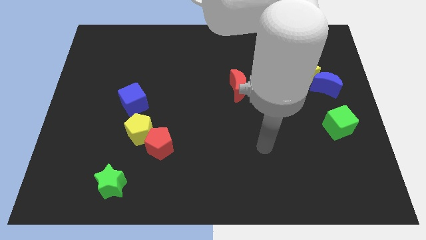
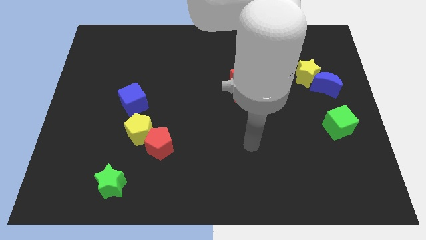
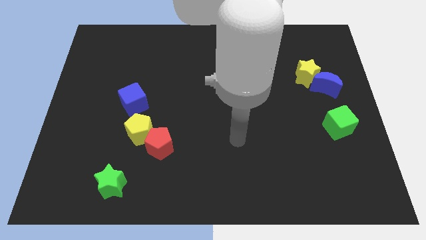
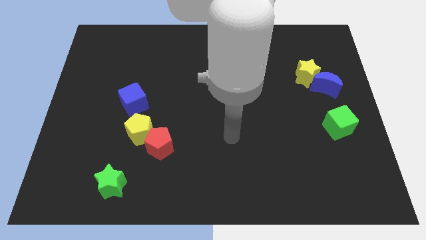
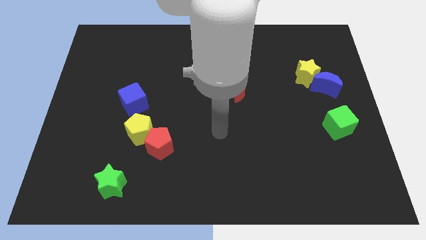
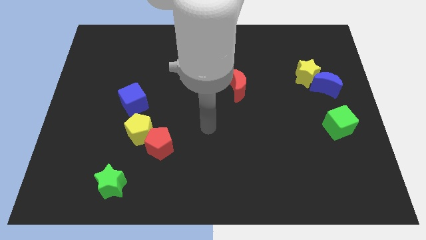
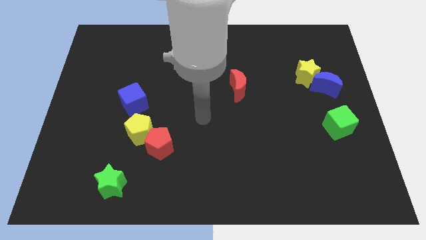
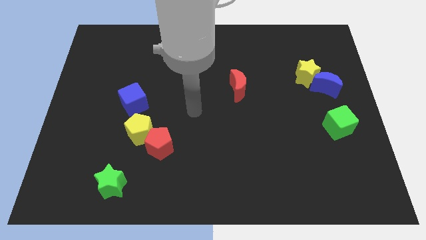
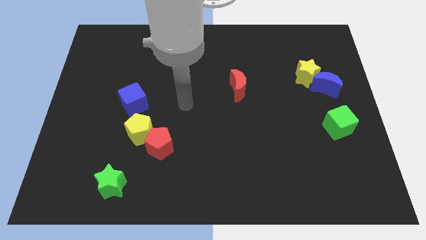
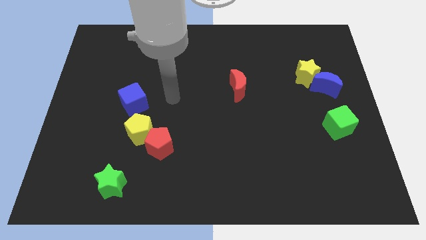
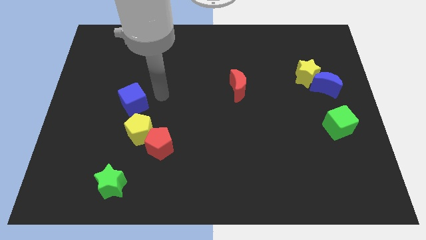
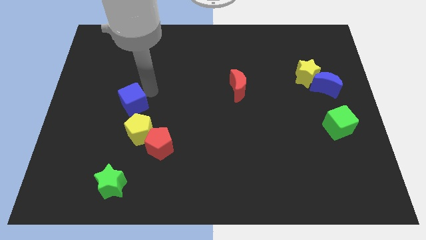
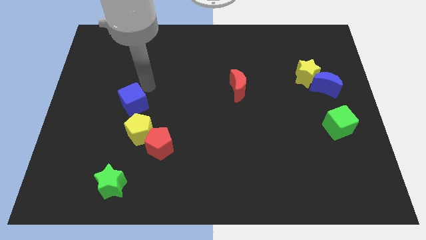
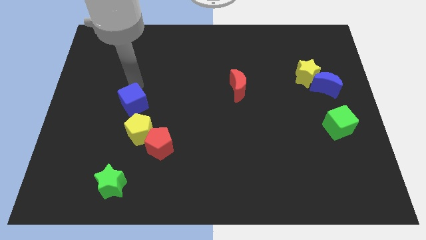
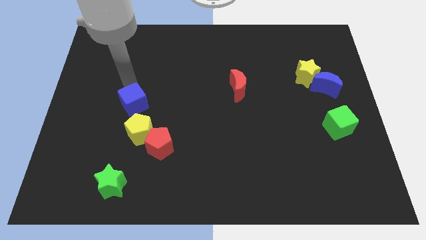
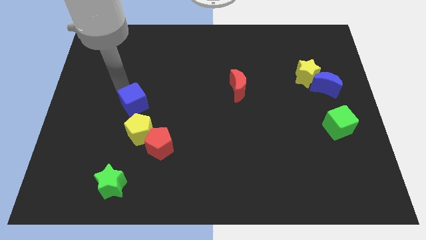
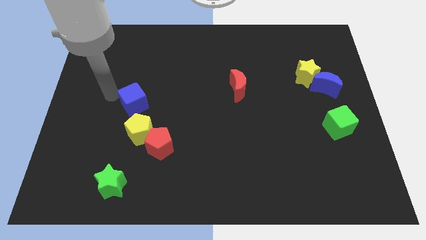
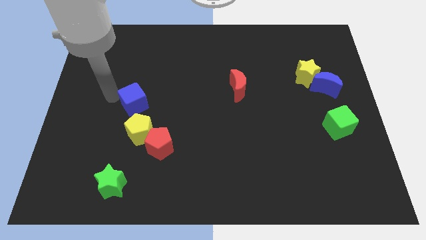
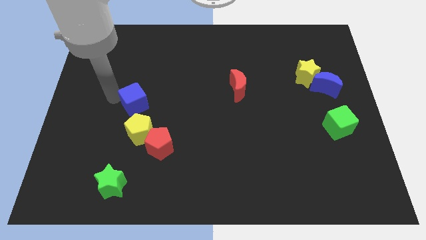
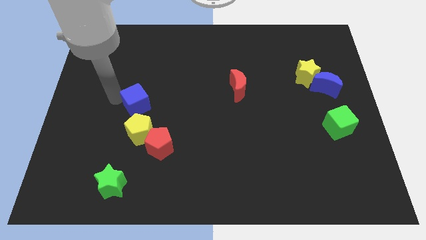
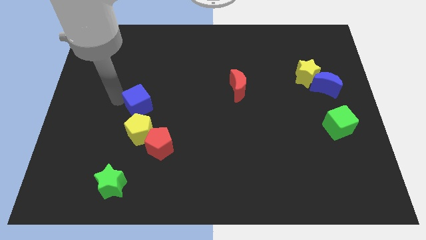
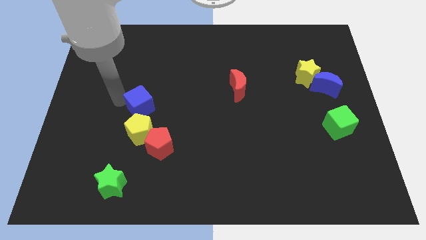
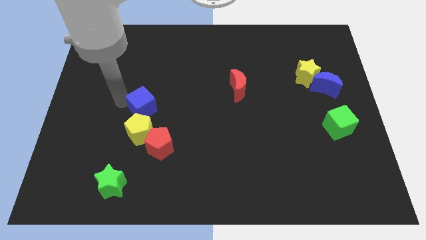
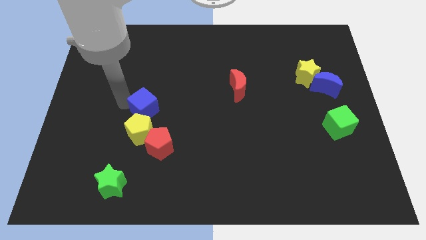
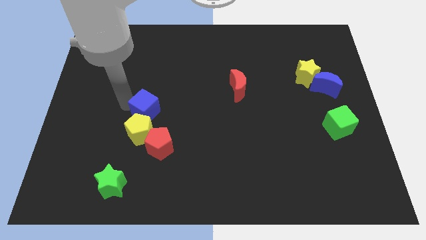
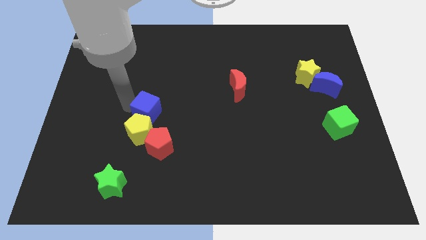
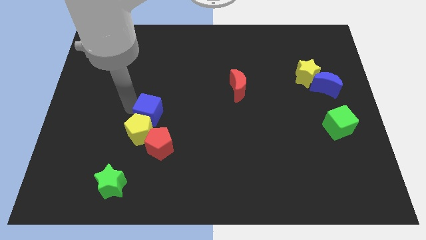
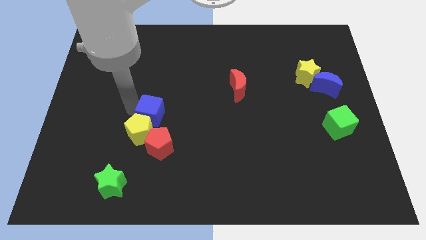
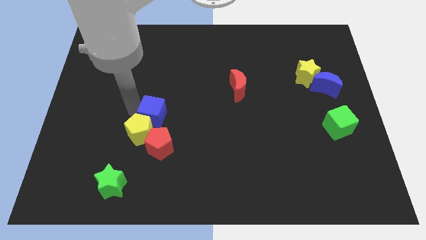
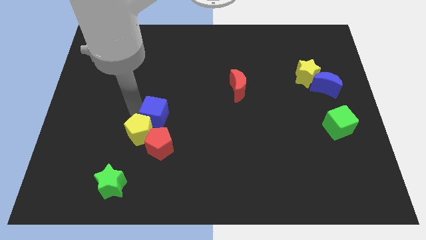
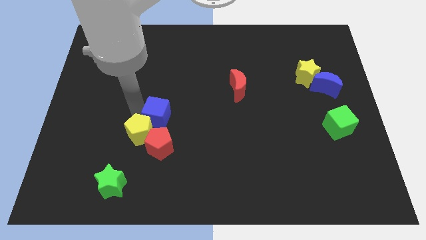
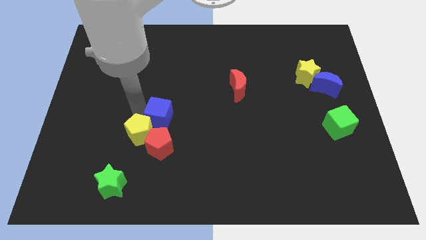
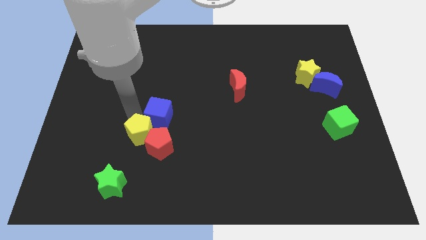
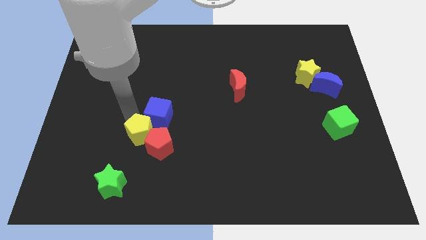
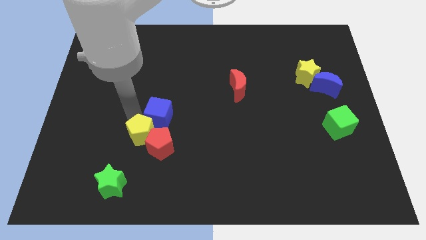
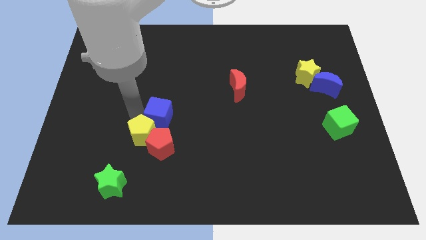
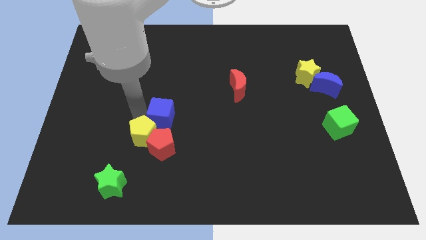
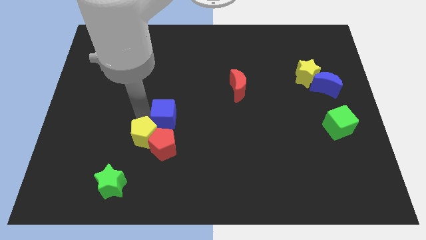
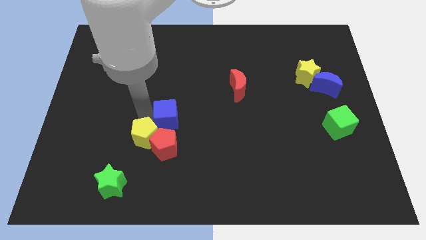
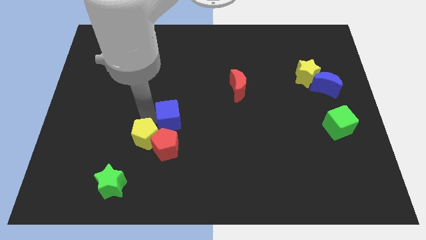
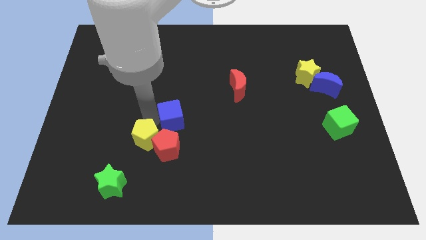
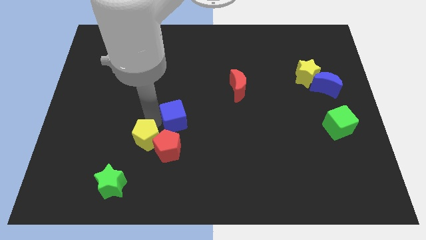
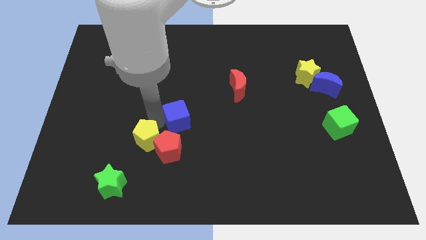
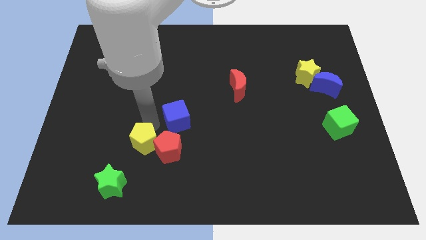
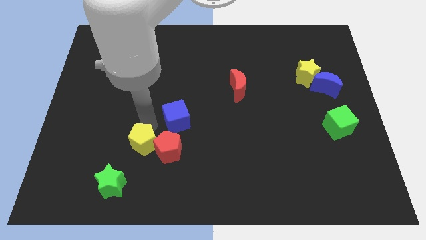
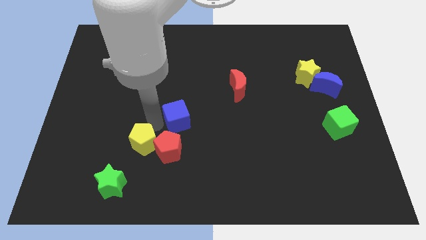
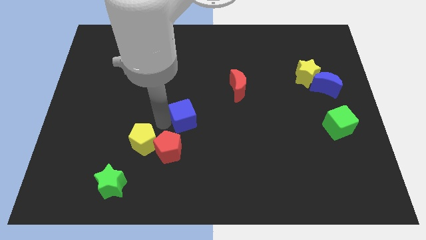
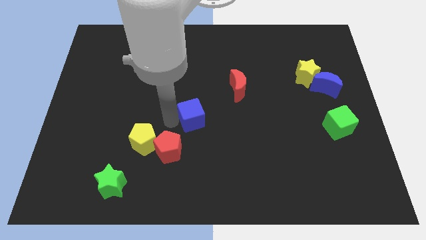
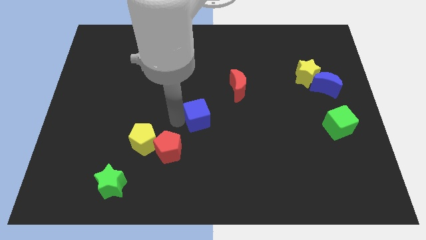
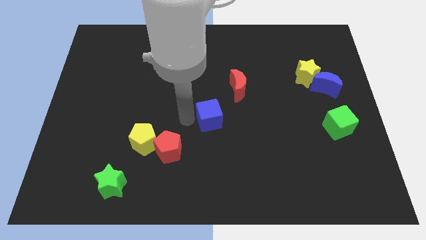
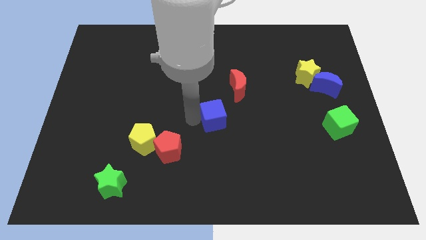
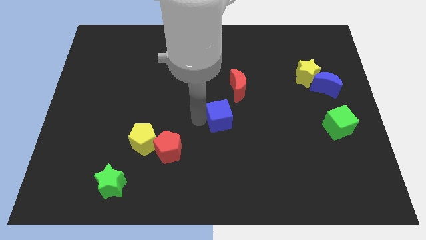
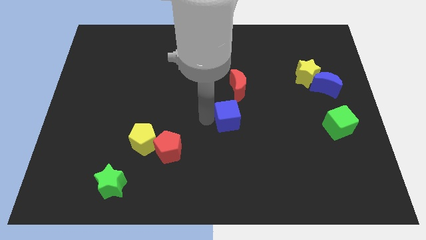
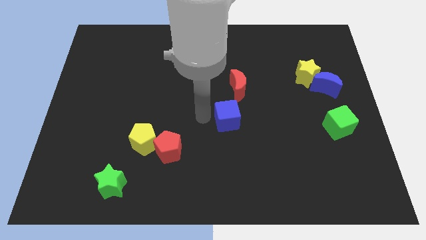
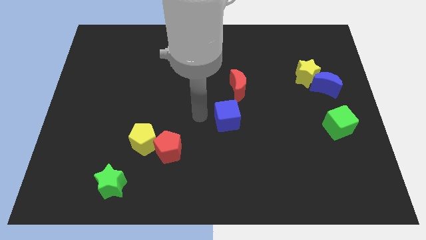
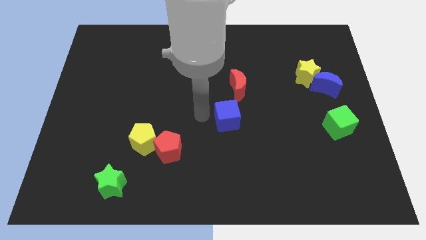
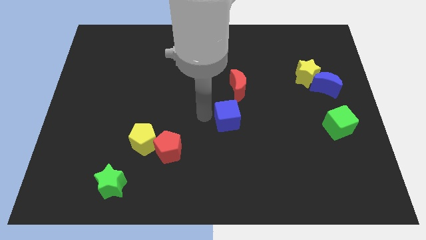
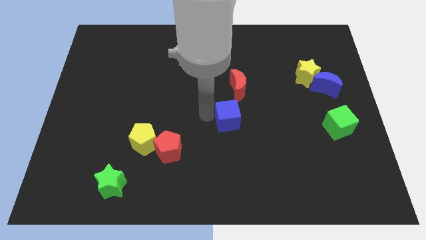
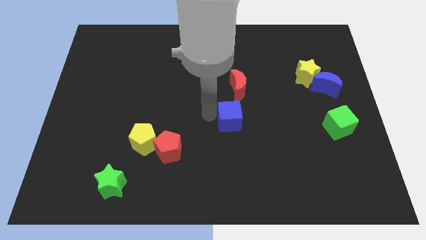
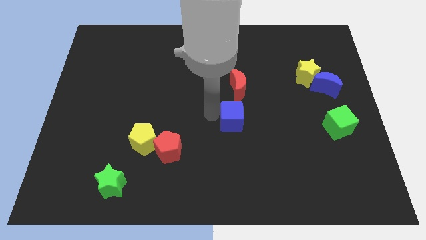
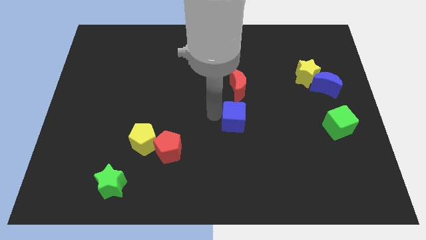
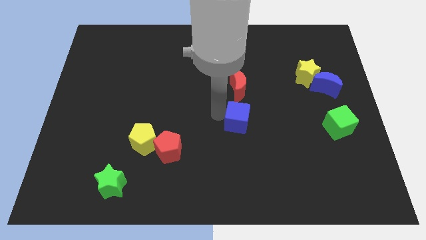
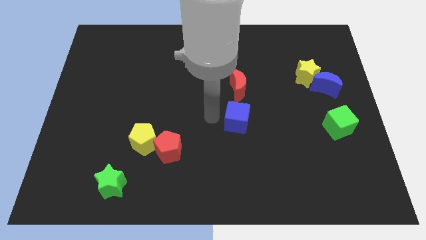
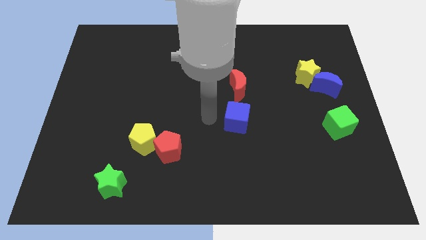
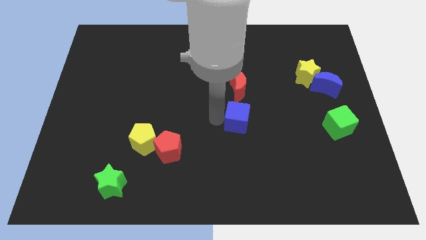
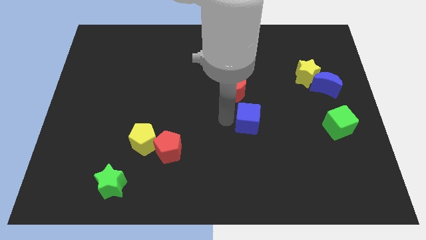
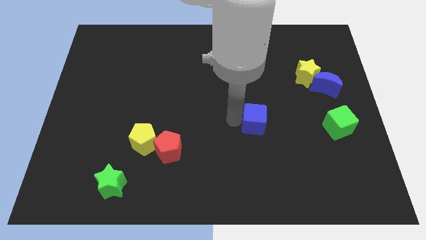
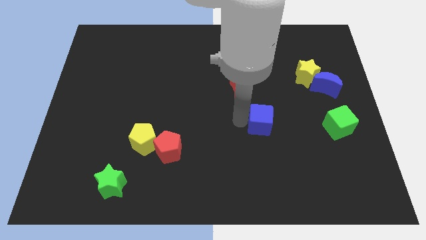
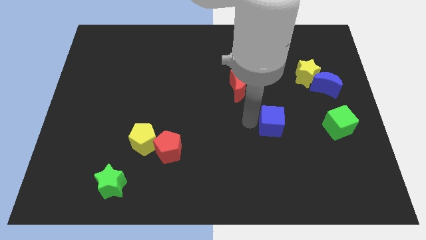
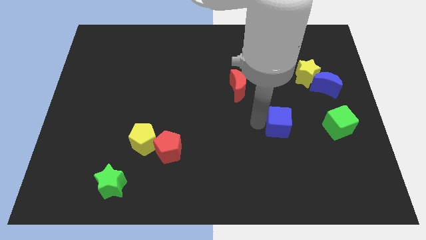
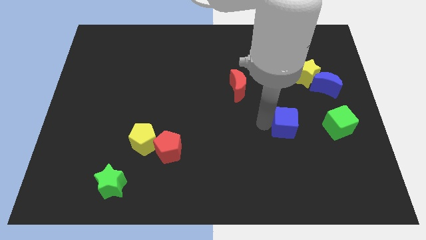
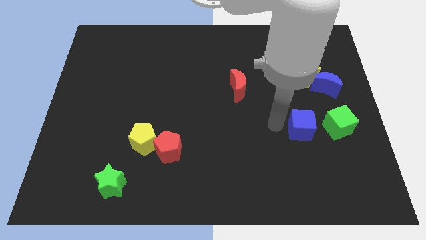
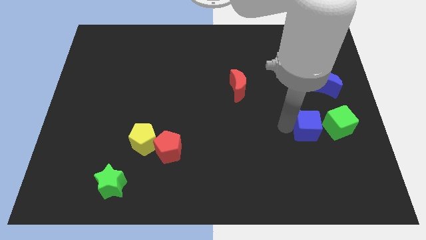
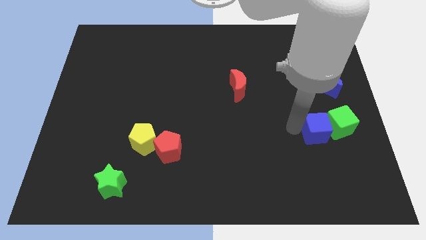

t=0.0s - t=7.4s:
put the blue cube next to the green cube
